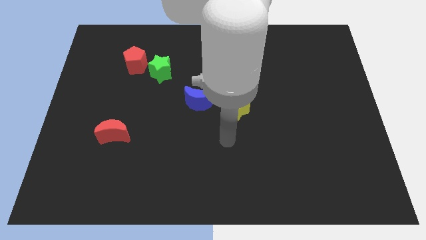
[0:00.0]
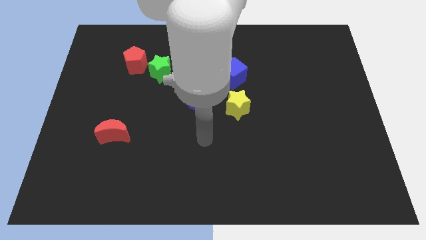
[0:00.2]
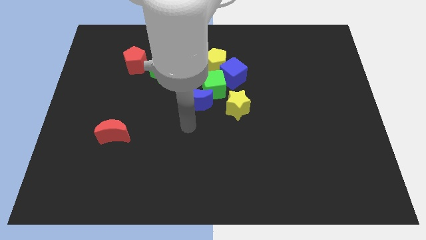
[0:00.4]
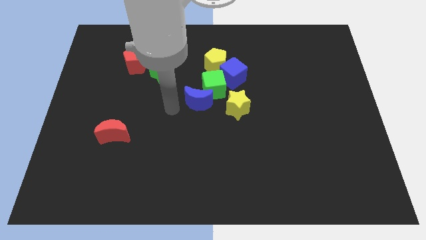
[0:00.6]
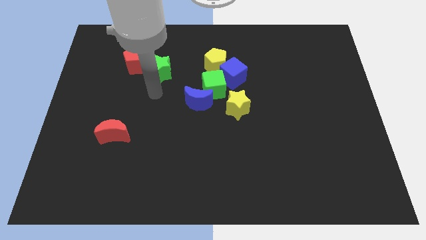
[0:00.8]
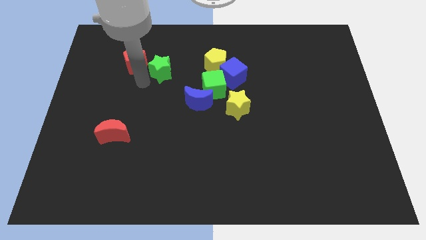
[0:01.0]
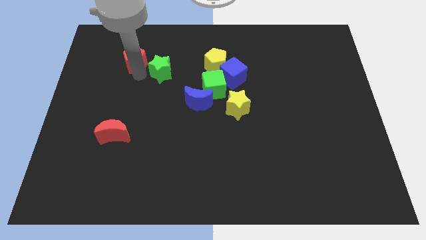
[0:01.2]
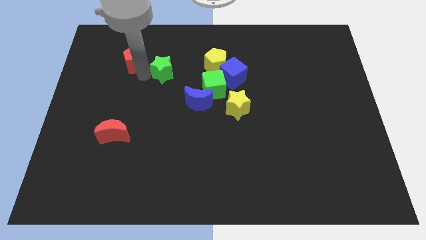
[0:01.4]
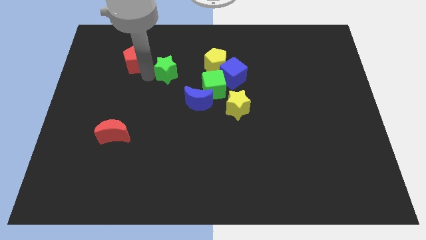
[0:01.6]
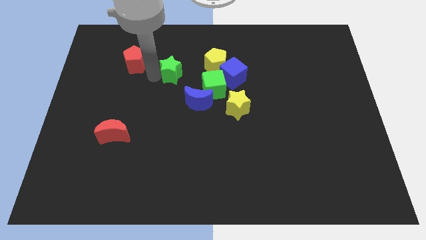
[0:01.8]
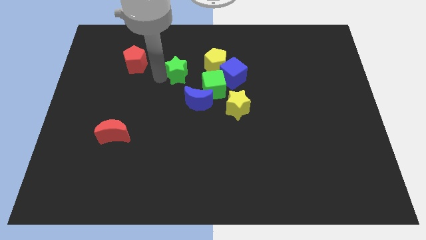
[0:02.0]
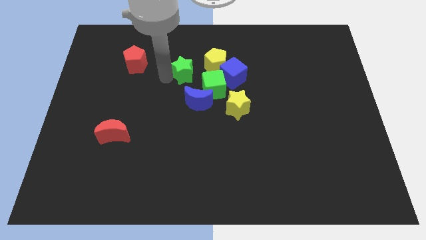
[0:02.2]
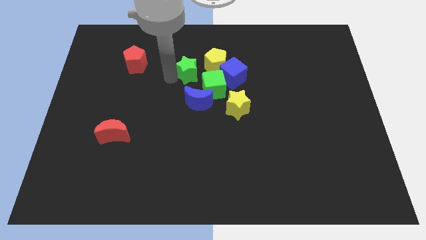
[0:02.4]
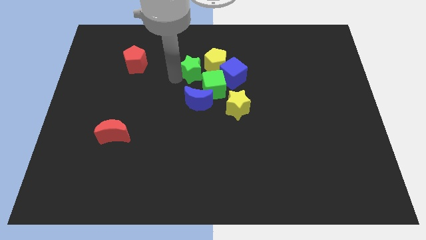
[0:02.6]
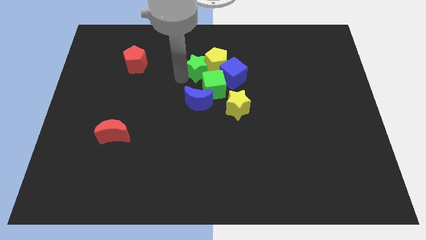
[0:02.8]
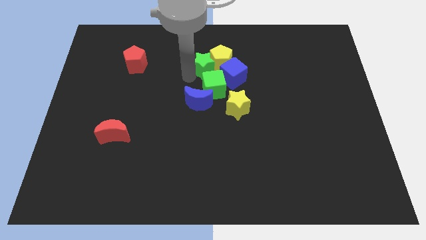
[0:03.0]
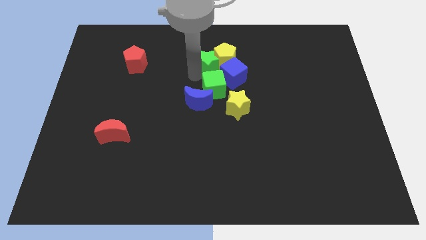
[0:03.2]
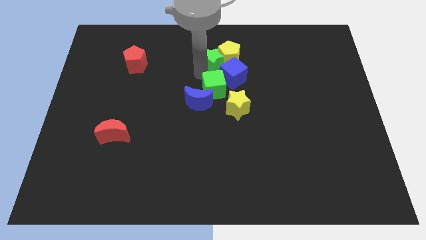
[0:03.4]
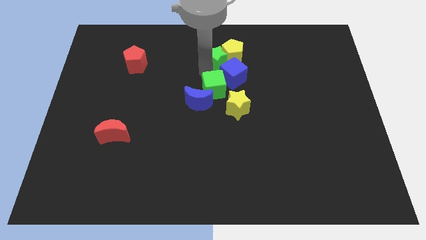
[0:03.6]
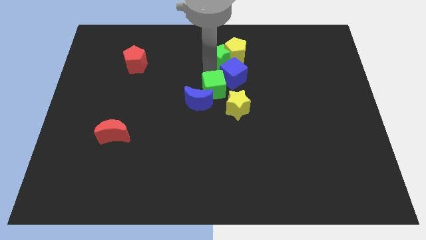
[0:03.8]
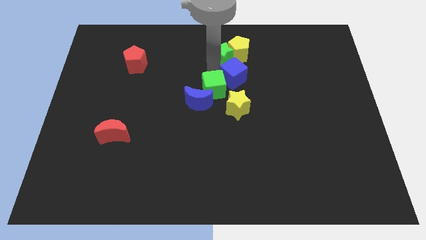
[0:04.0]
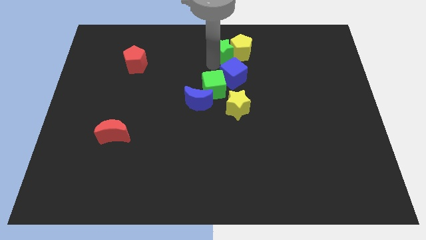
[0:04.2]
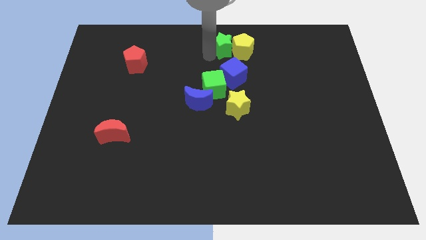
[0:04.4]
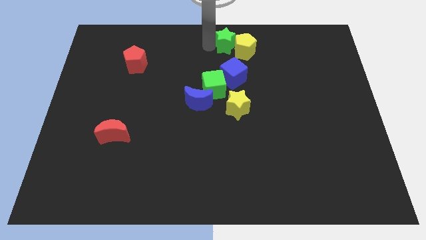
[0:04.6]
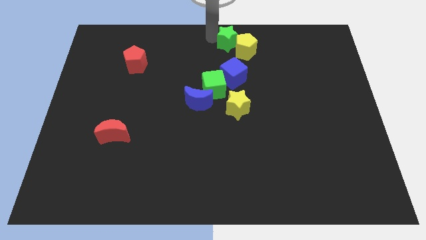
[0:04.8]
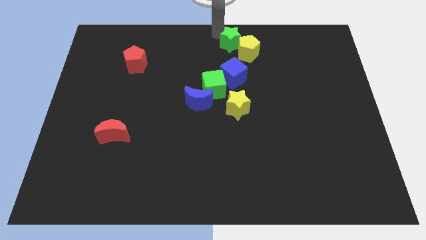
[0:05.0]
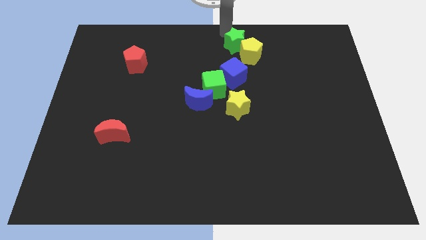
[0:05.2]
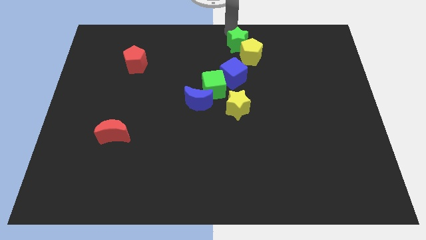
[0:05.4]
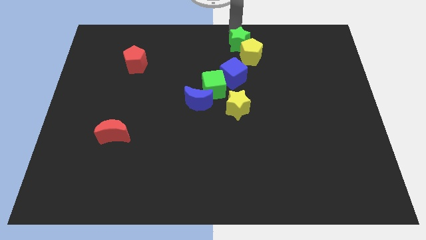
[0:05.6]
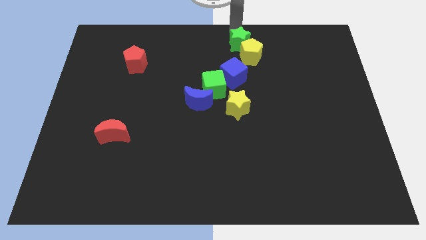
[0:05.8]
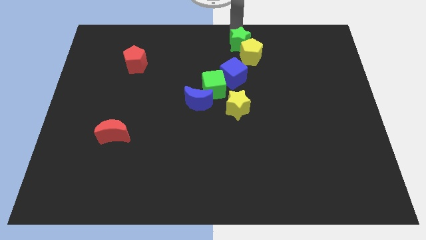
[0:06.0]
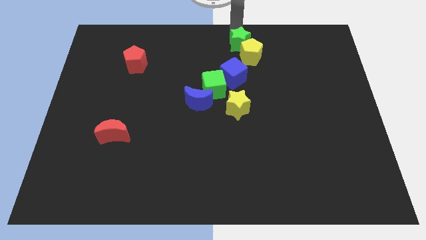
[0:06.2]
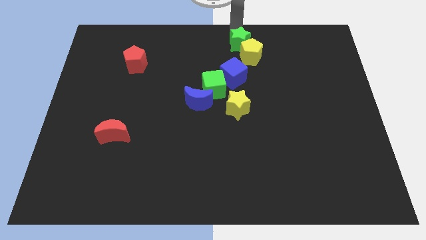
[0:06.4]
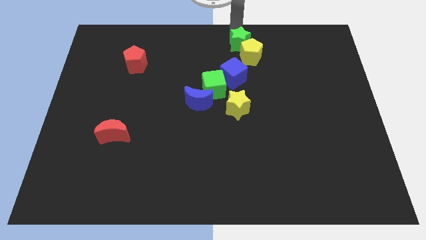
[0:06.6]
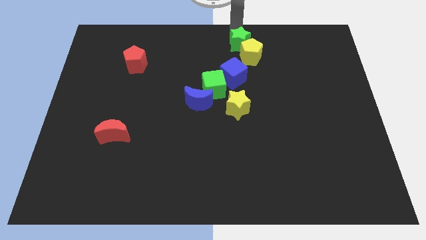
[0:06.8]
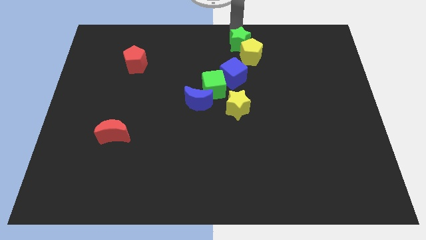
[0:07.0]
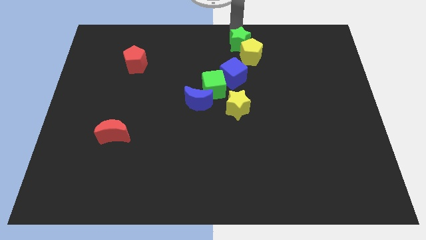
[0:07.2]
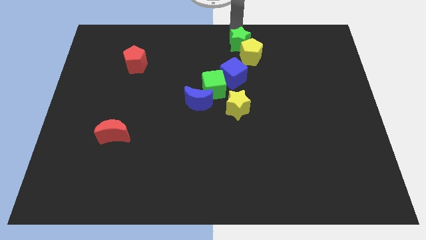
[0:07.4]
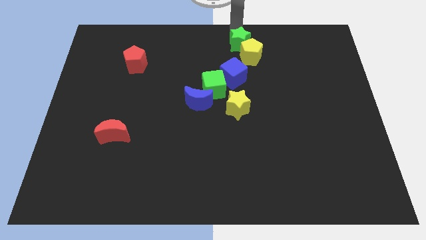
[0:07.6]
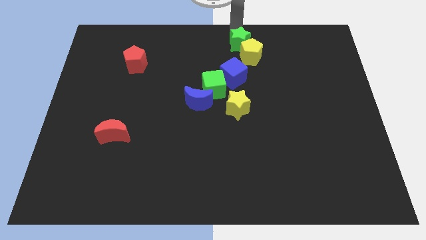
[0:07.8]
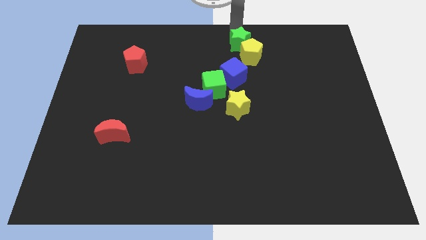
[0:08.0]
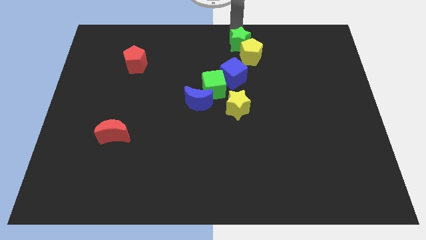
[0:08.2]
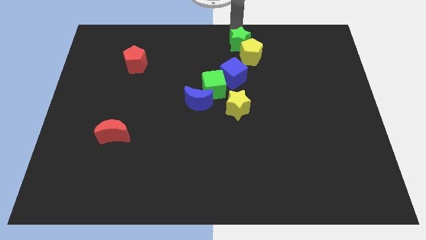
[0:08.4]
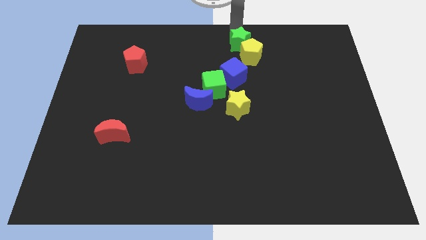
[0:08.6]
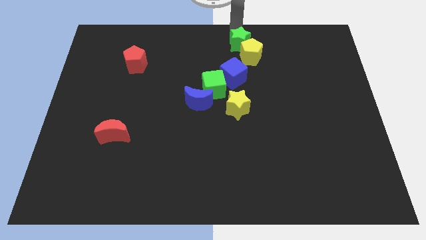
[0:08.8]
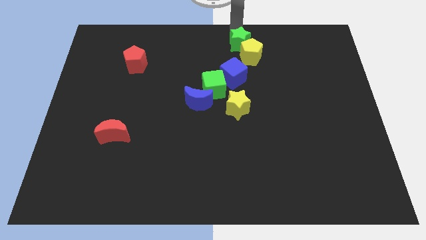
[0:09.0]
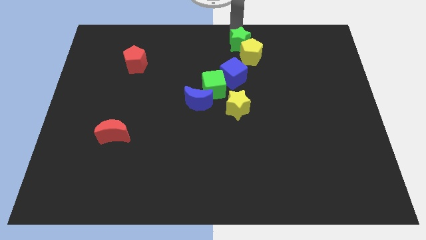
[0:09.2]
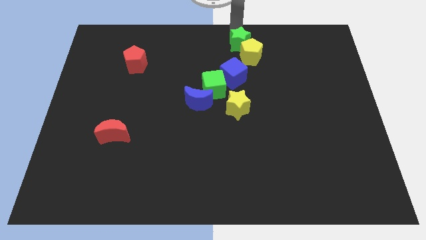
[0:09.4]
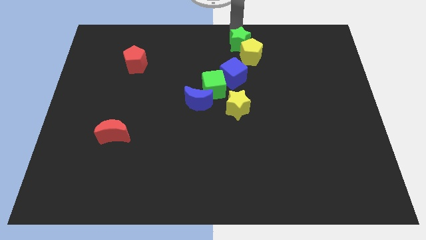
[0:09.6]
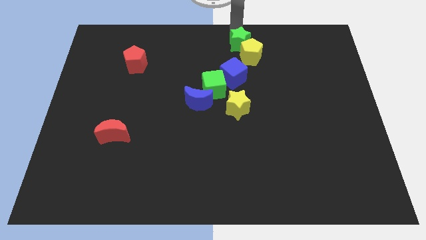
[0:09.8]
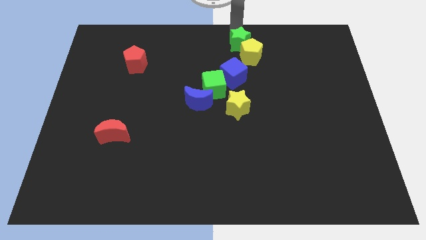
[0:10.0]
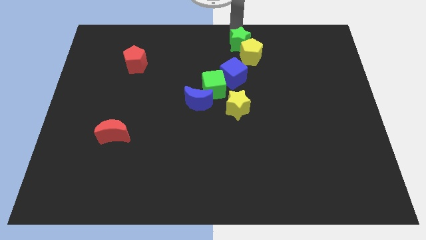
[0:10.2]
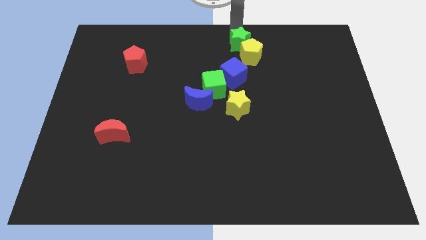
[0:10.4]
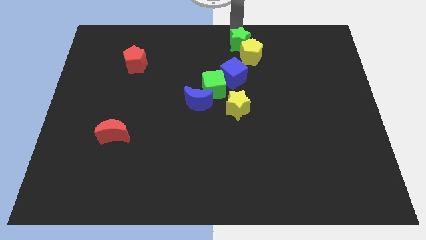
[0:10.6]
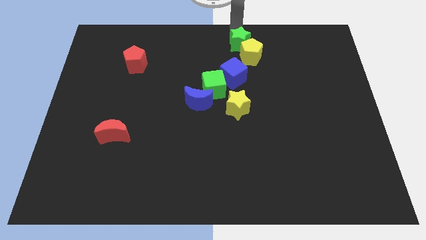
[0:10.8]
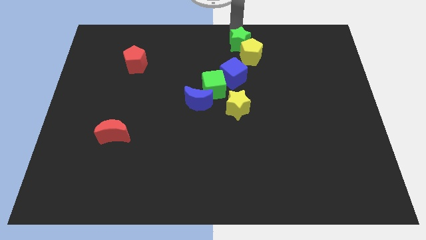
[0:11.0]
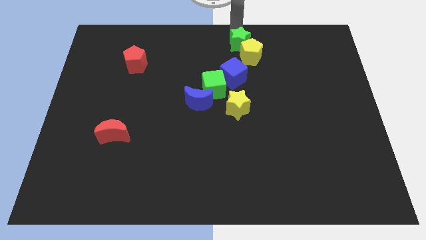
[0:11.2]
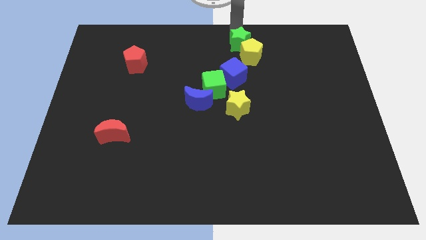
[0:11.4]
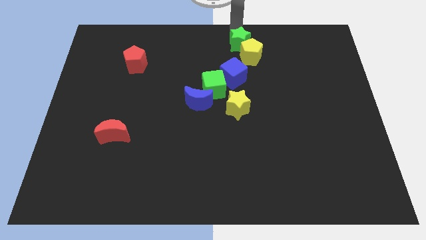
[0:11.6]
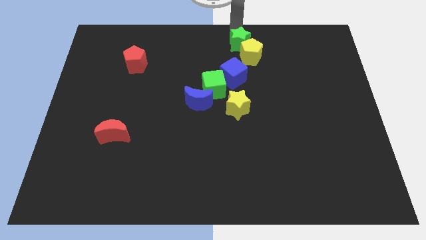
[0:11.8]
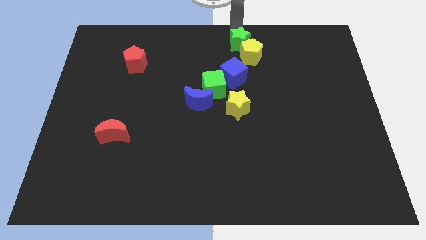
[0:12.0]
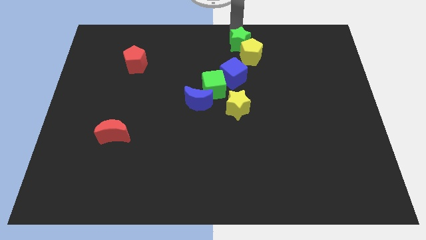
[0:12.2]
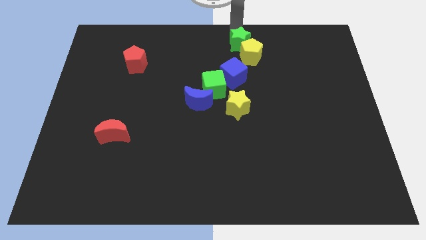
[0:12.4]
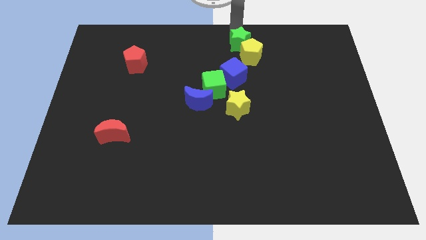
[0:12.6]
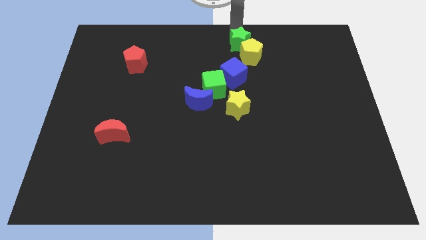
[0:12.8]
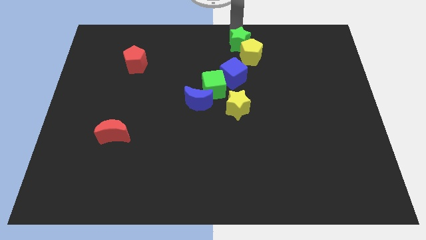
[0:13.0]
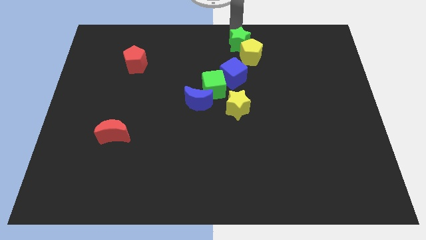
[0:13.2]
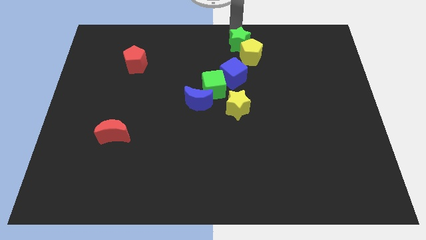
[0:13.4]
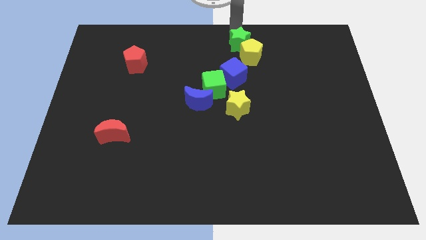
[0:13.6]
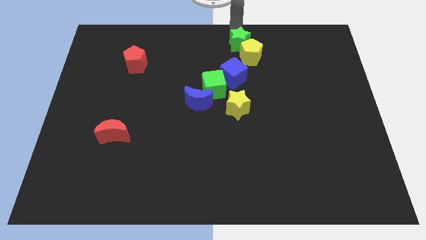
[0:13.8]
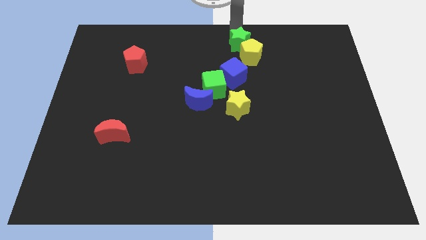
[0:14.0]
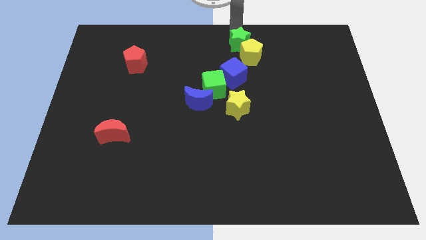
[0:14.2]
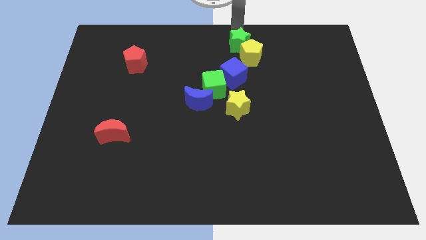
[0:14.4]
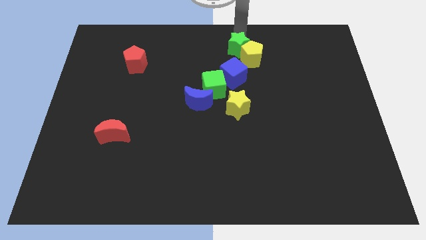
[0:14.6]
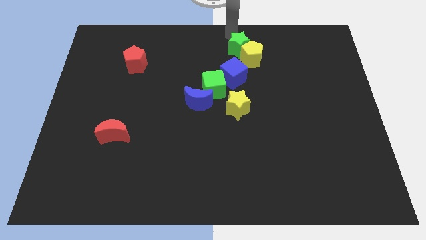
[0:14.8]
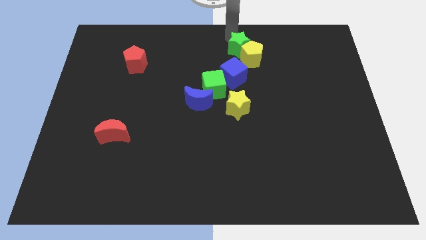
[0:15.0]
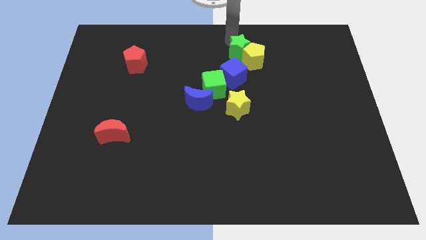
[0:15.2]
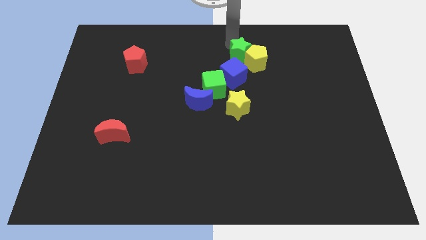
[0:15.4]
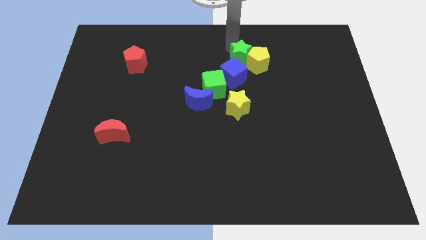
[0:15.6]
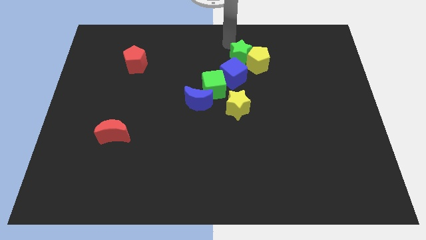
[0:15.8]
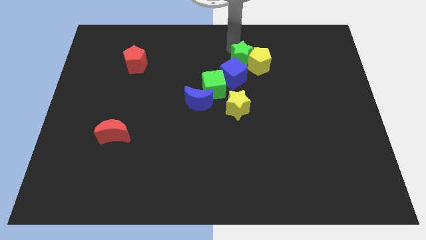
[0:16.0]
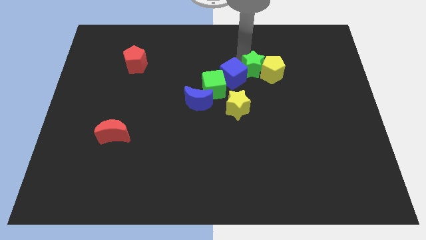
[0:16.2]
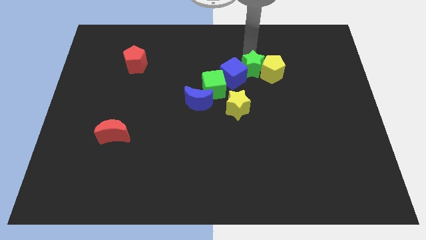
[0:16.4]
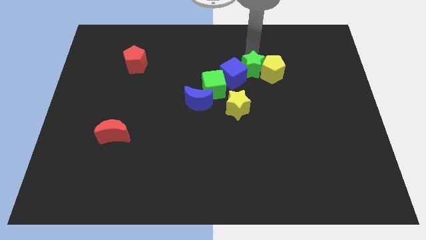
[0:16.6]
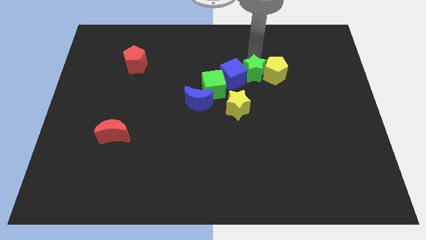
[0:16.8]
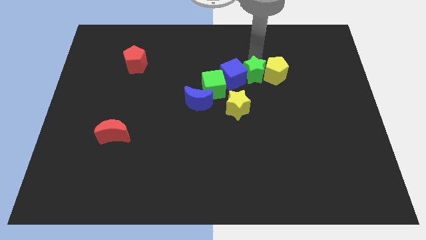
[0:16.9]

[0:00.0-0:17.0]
push the green star to the right of the green cube
